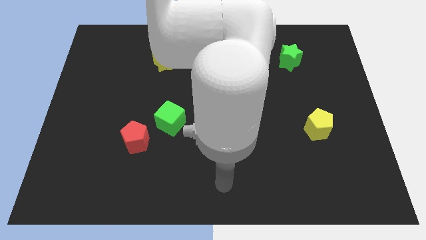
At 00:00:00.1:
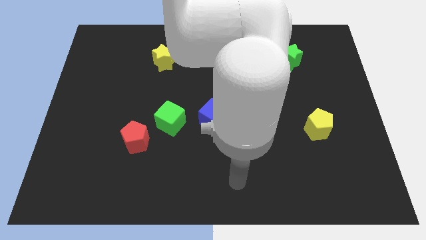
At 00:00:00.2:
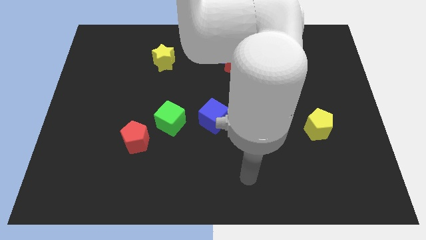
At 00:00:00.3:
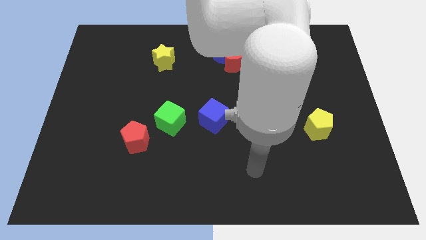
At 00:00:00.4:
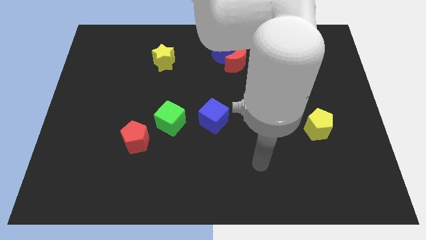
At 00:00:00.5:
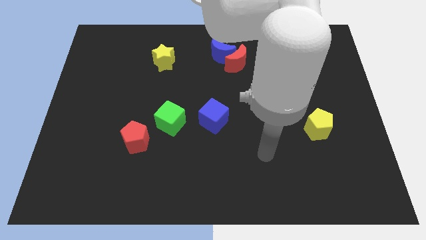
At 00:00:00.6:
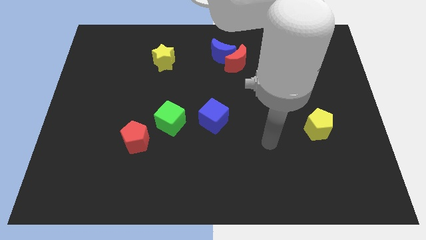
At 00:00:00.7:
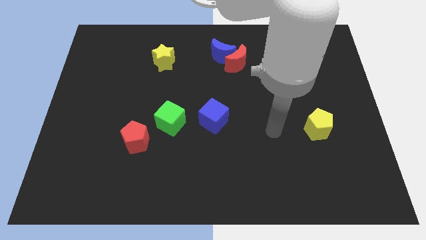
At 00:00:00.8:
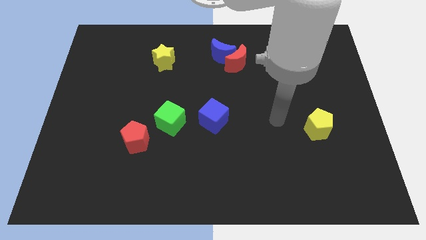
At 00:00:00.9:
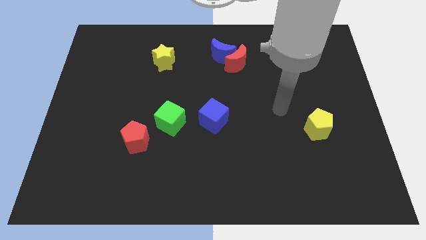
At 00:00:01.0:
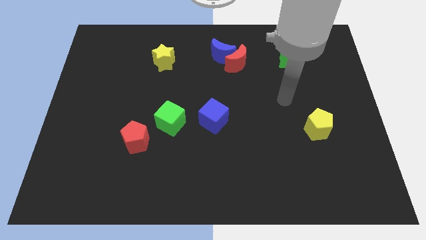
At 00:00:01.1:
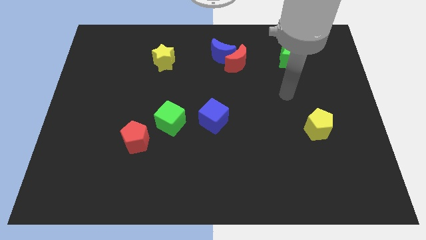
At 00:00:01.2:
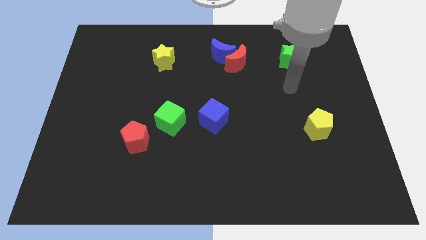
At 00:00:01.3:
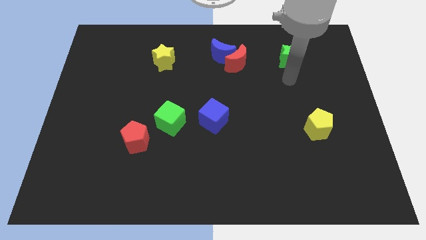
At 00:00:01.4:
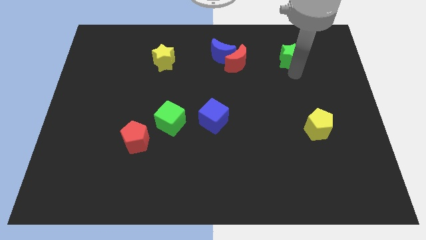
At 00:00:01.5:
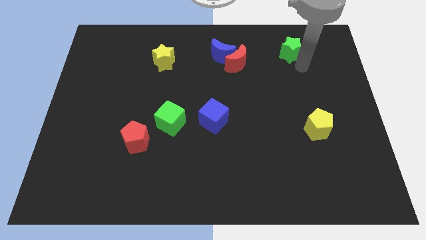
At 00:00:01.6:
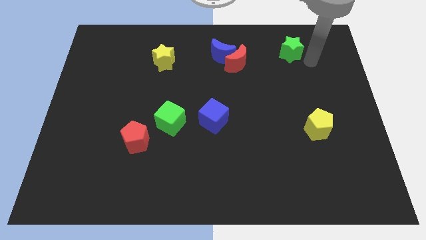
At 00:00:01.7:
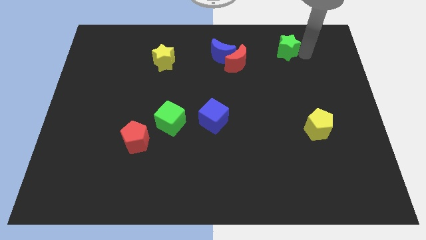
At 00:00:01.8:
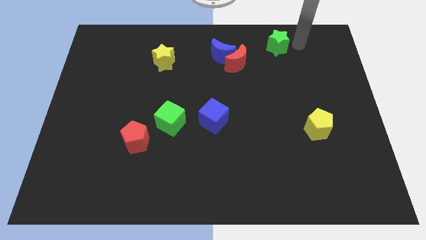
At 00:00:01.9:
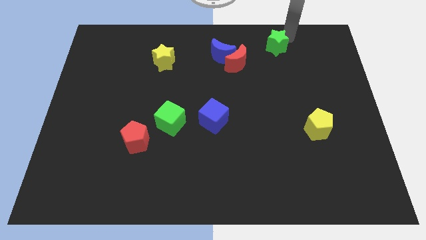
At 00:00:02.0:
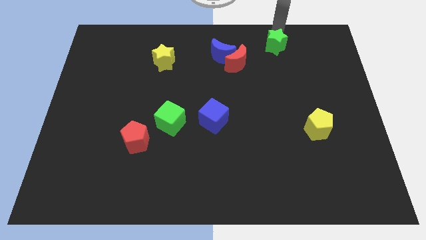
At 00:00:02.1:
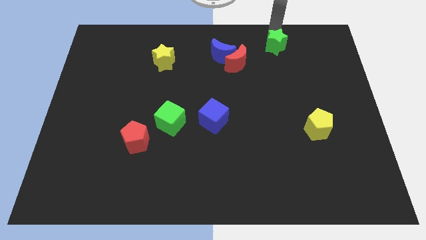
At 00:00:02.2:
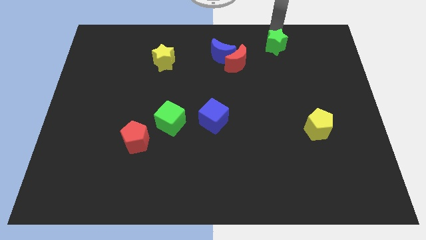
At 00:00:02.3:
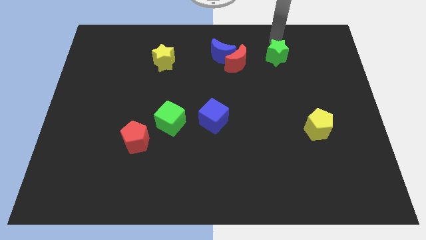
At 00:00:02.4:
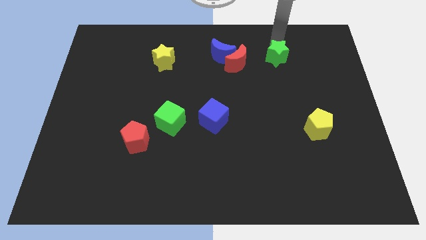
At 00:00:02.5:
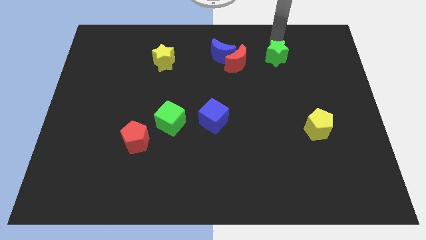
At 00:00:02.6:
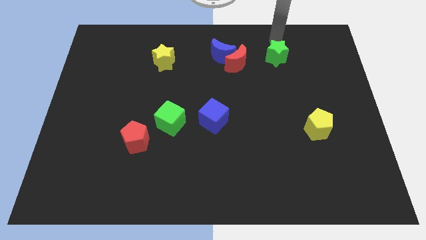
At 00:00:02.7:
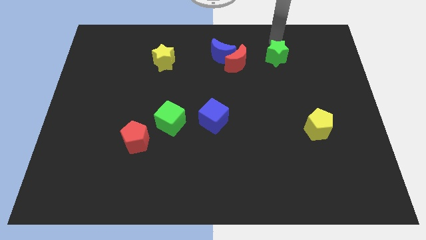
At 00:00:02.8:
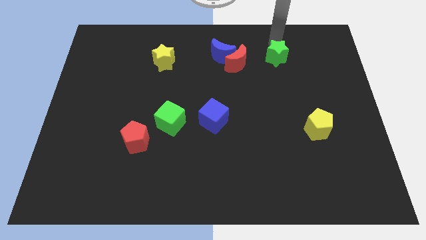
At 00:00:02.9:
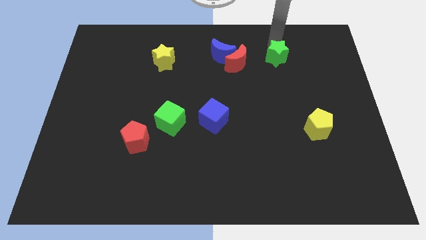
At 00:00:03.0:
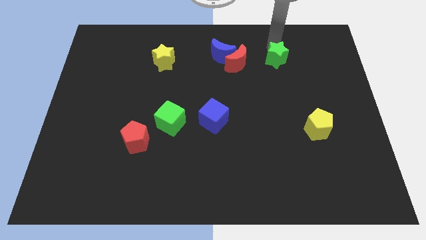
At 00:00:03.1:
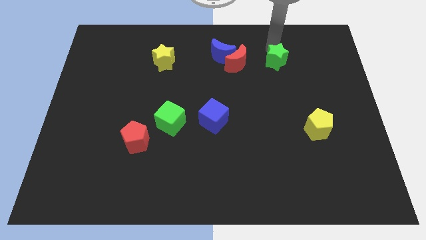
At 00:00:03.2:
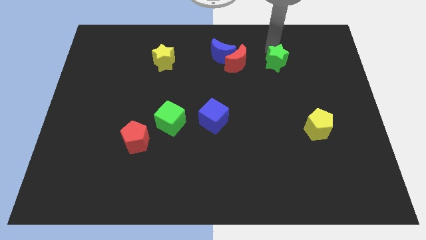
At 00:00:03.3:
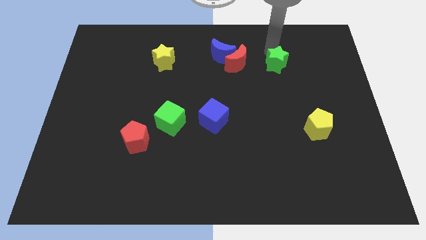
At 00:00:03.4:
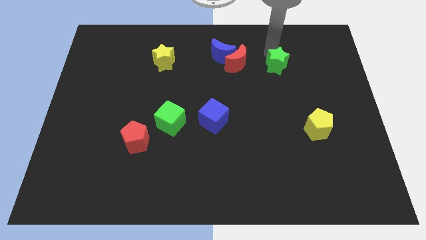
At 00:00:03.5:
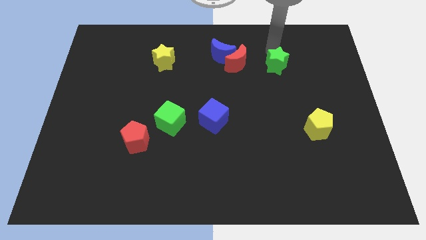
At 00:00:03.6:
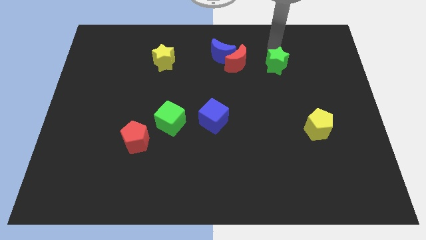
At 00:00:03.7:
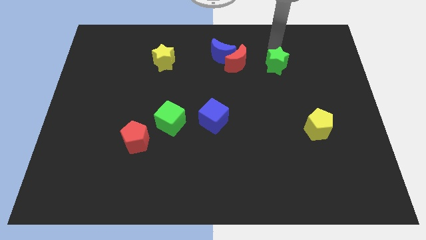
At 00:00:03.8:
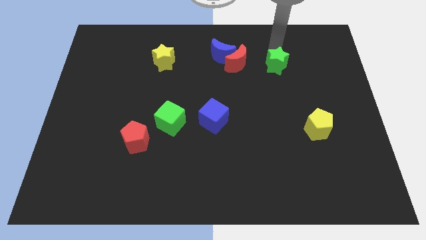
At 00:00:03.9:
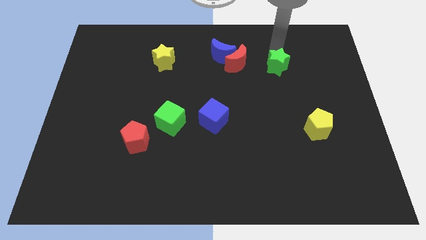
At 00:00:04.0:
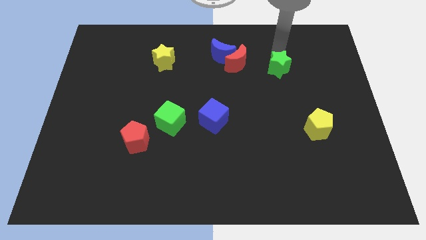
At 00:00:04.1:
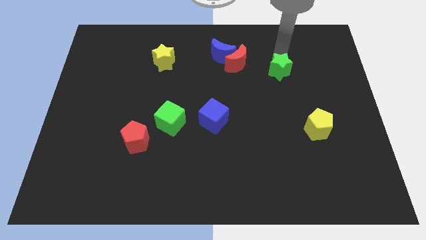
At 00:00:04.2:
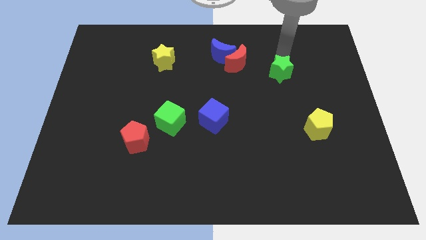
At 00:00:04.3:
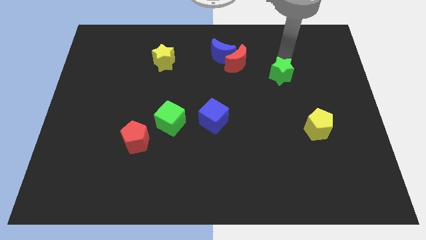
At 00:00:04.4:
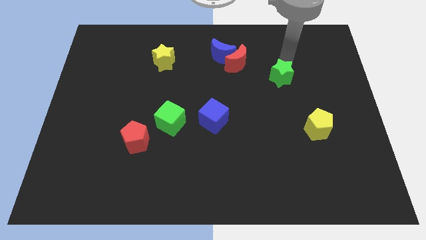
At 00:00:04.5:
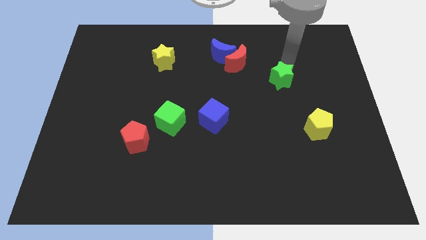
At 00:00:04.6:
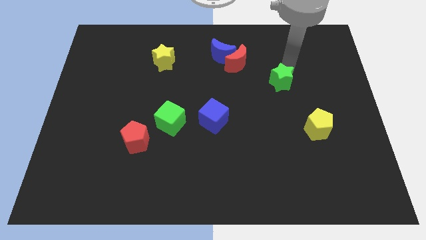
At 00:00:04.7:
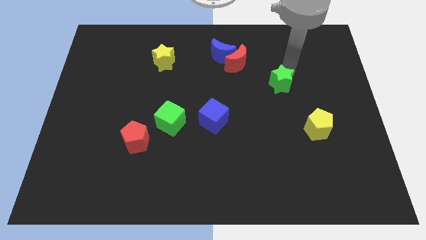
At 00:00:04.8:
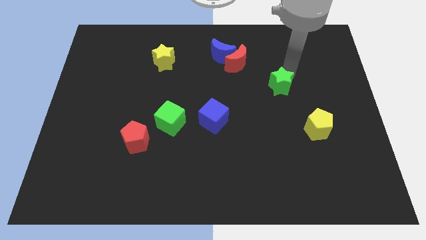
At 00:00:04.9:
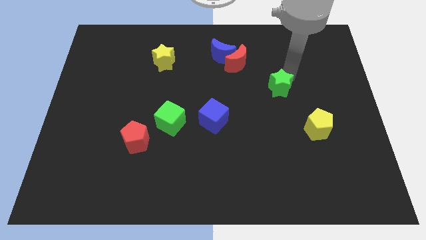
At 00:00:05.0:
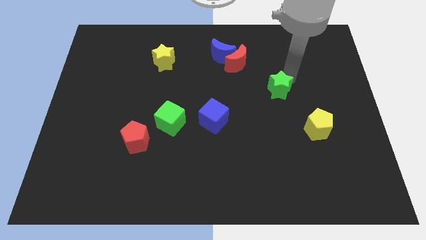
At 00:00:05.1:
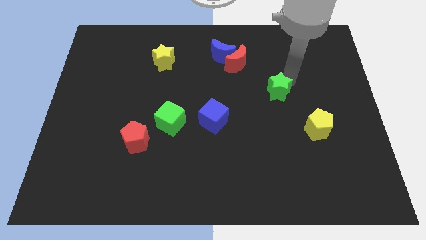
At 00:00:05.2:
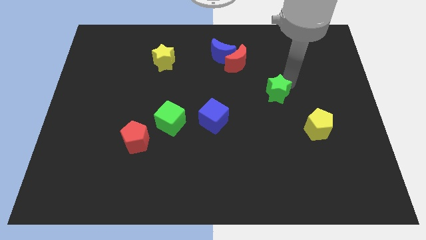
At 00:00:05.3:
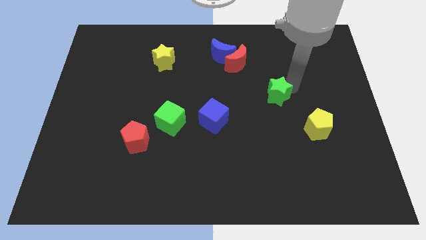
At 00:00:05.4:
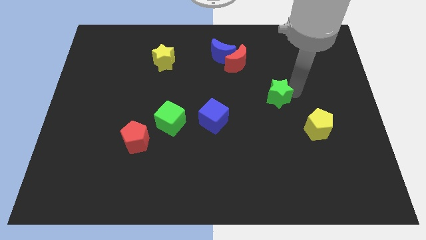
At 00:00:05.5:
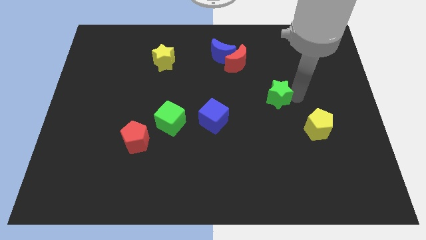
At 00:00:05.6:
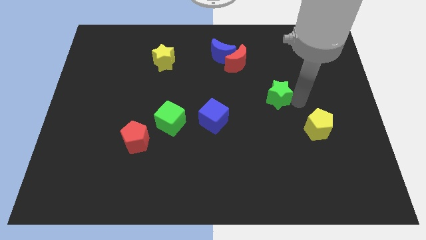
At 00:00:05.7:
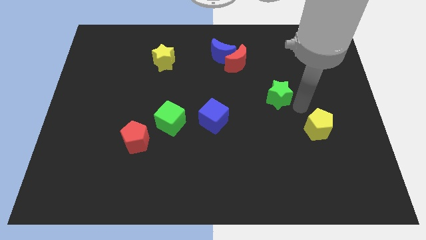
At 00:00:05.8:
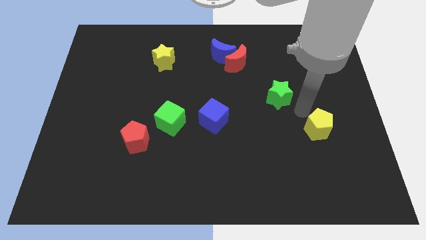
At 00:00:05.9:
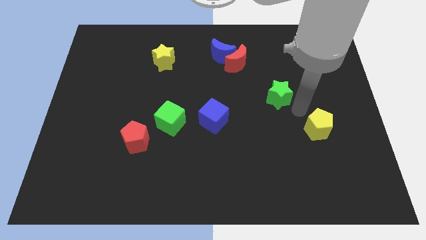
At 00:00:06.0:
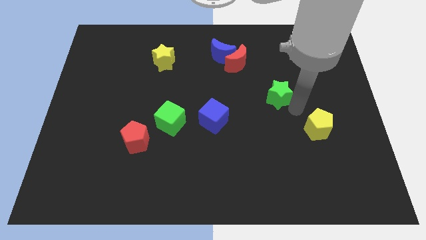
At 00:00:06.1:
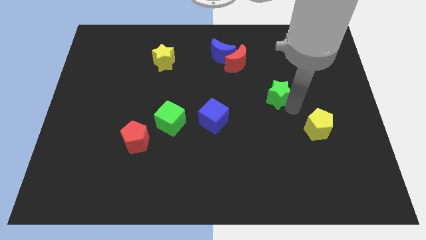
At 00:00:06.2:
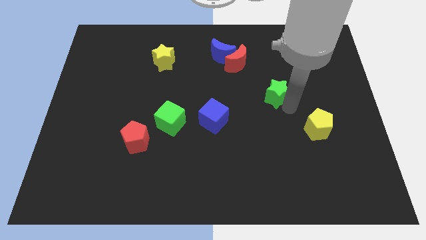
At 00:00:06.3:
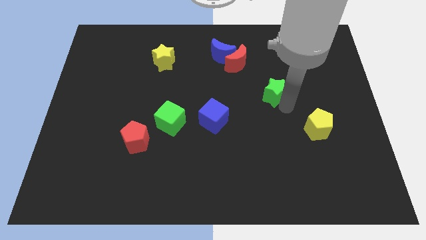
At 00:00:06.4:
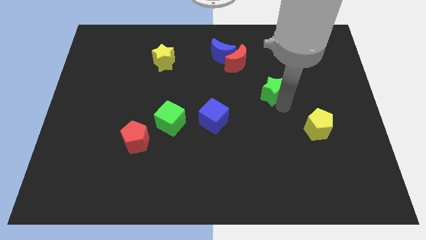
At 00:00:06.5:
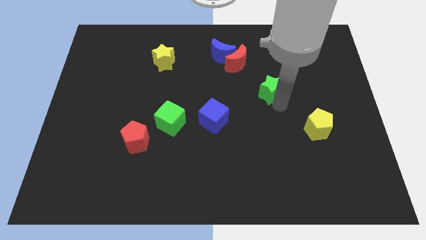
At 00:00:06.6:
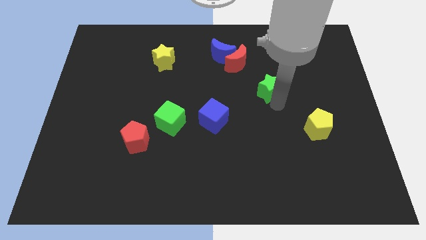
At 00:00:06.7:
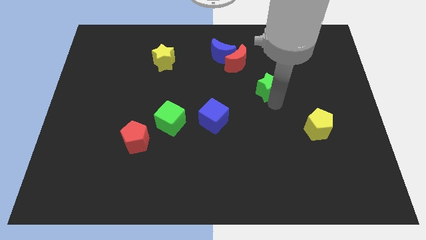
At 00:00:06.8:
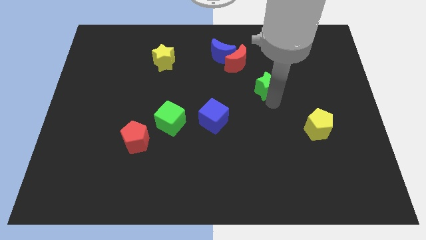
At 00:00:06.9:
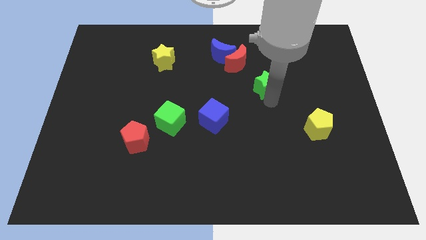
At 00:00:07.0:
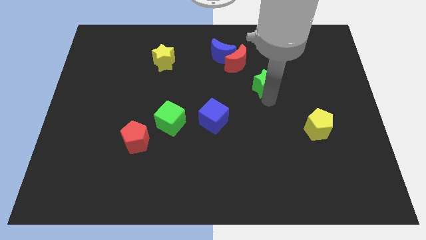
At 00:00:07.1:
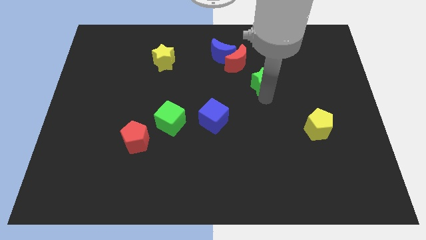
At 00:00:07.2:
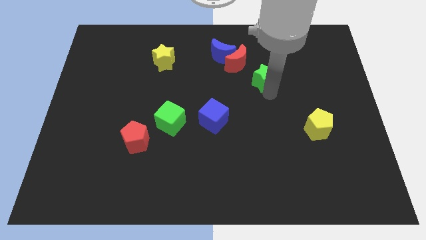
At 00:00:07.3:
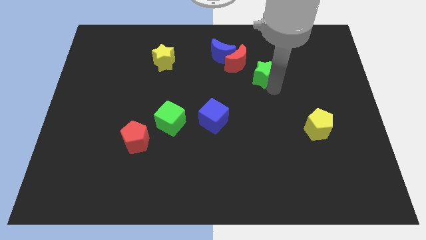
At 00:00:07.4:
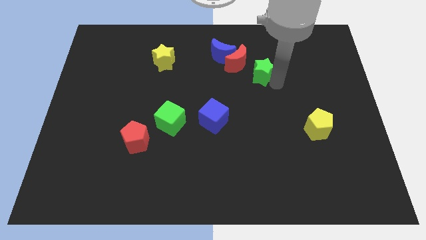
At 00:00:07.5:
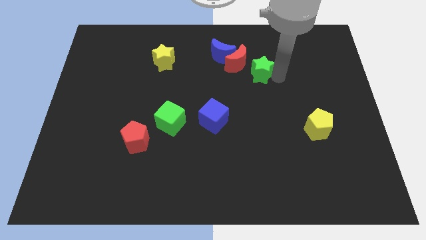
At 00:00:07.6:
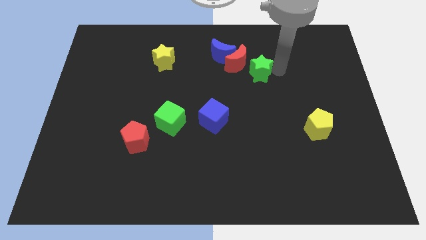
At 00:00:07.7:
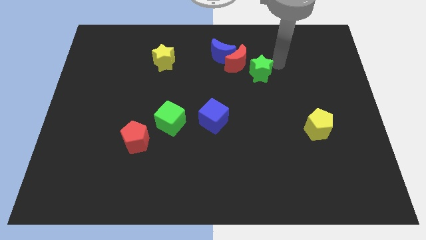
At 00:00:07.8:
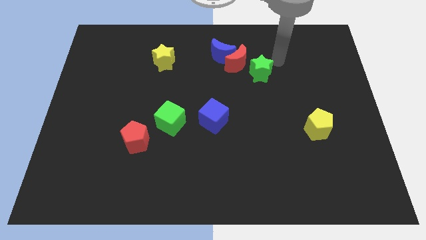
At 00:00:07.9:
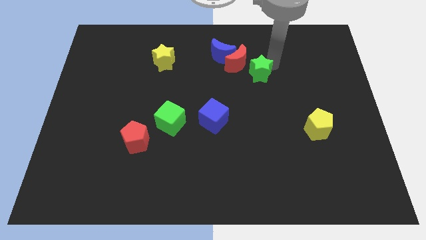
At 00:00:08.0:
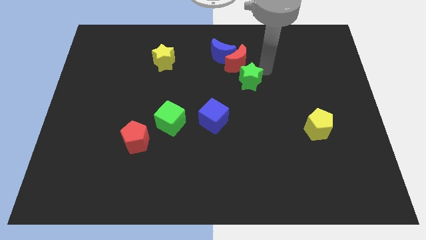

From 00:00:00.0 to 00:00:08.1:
put the green star to the middle of the board
